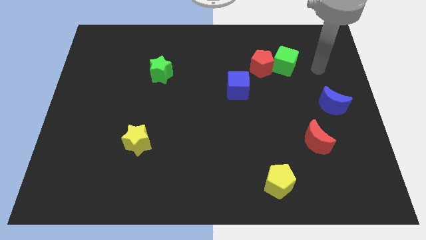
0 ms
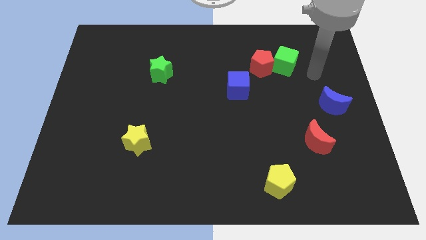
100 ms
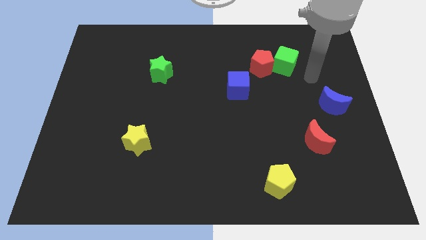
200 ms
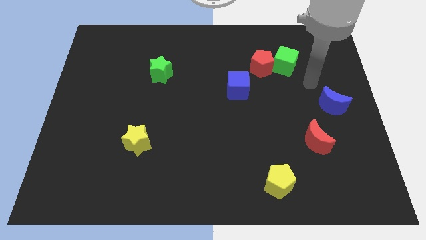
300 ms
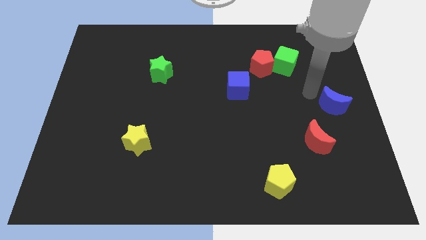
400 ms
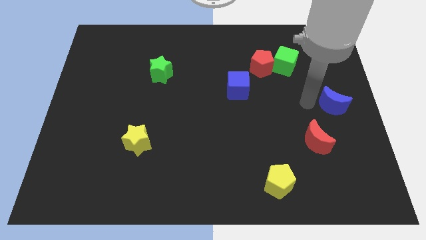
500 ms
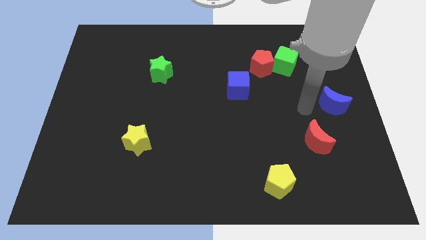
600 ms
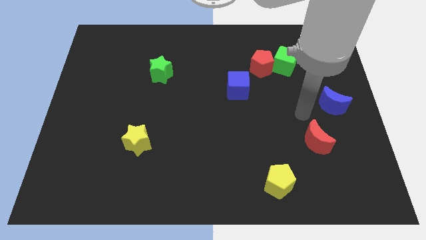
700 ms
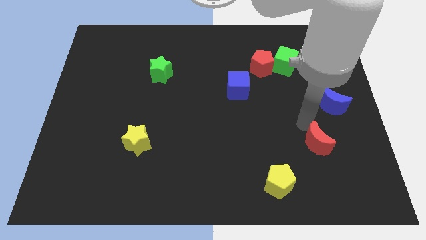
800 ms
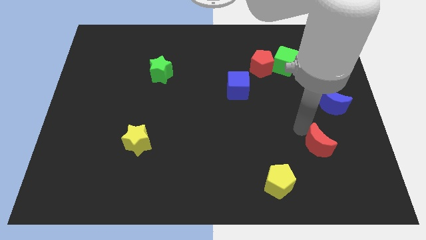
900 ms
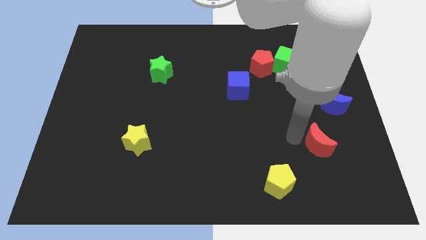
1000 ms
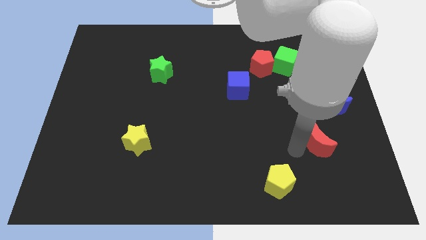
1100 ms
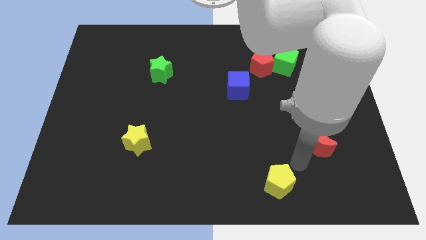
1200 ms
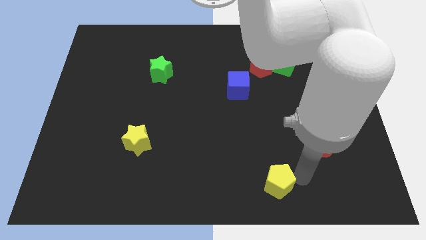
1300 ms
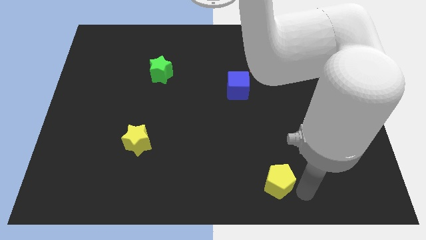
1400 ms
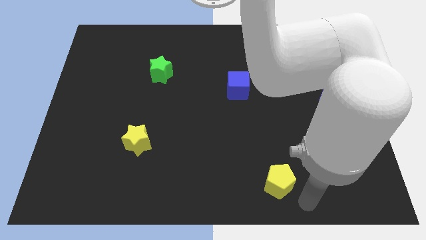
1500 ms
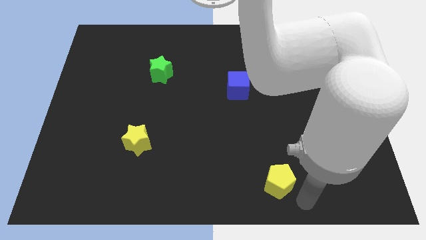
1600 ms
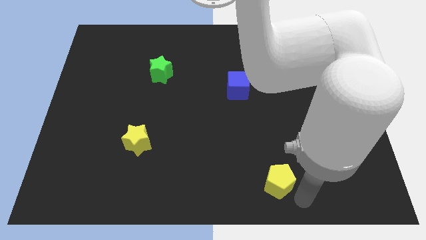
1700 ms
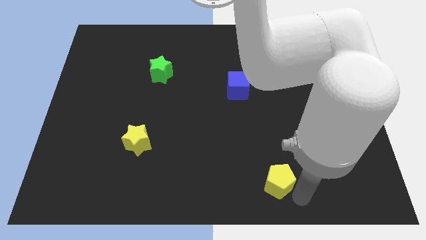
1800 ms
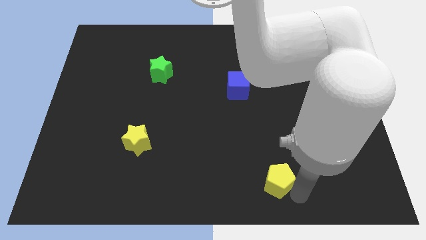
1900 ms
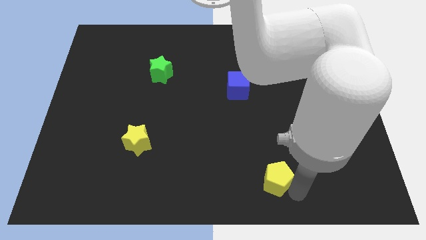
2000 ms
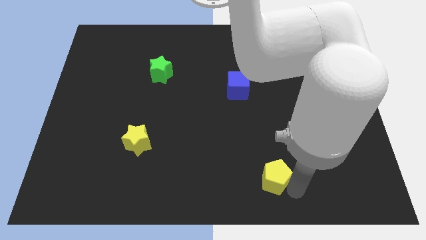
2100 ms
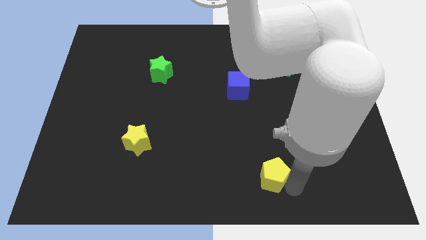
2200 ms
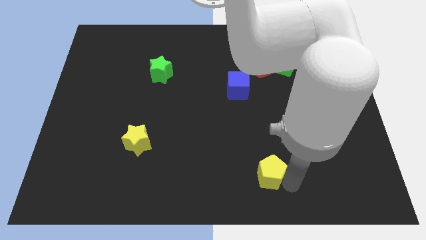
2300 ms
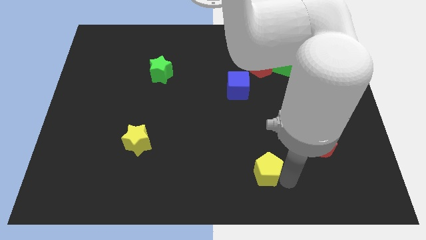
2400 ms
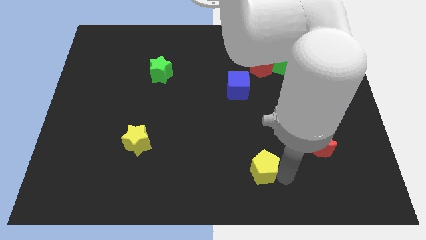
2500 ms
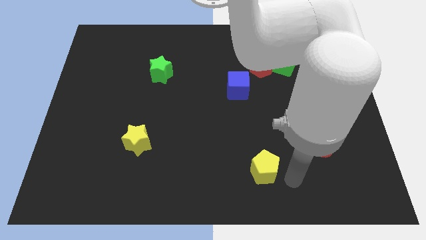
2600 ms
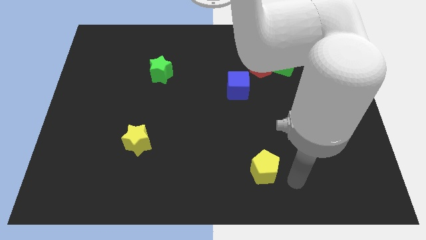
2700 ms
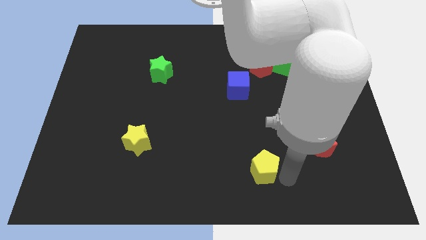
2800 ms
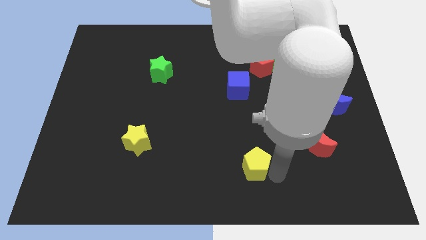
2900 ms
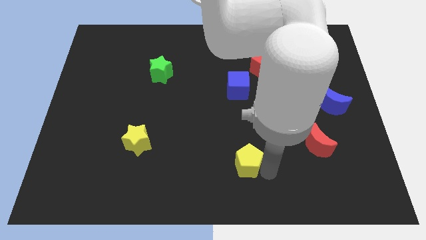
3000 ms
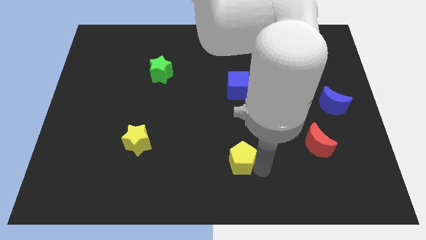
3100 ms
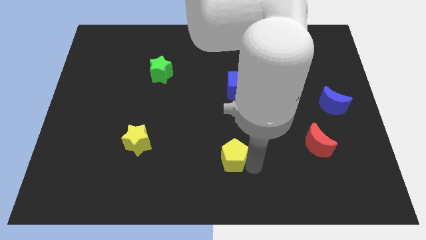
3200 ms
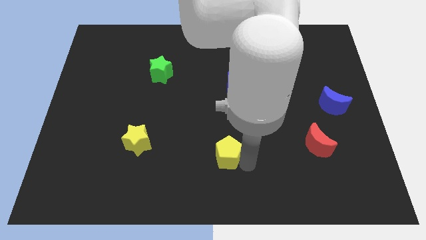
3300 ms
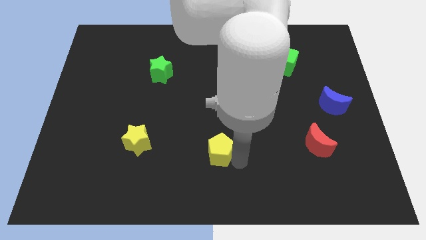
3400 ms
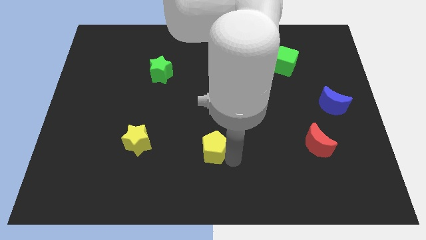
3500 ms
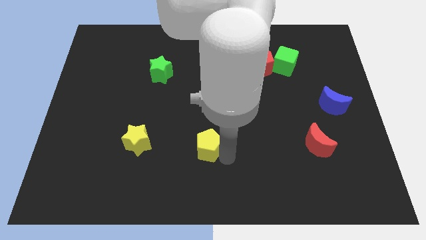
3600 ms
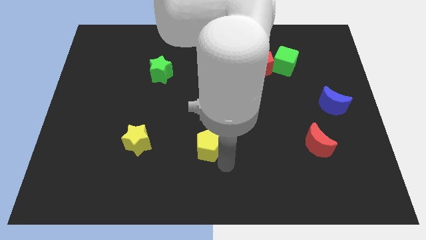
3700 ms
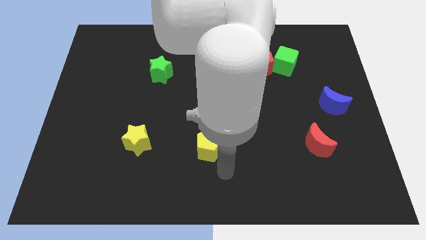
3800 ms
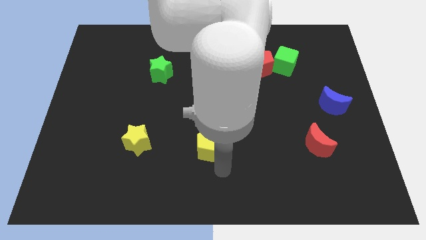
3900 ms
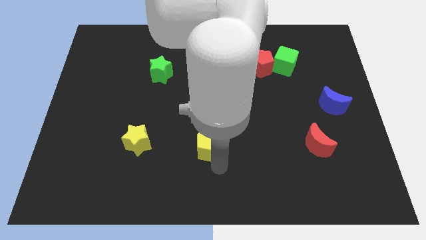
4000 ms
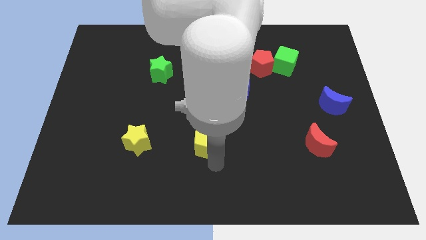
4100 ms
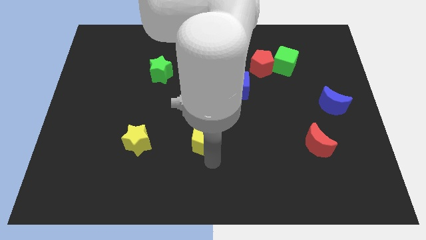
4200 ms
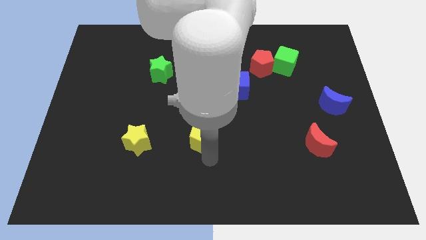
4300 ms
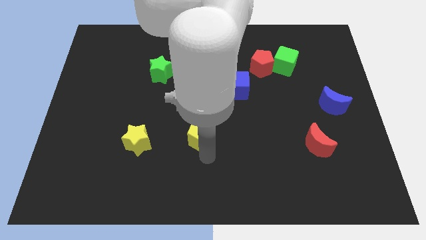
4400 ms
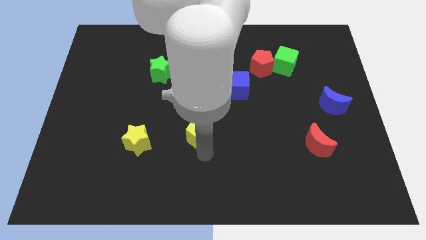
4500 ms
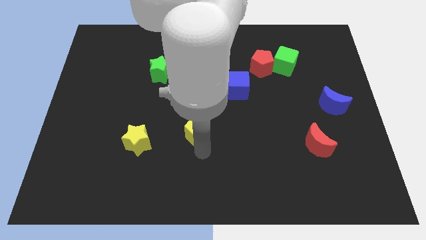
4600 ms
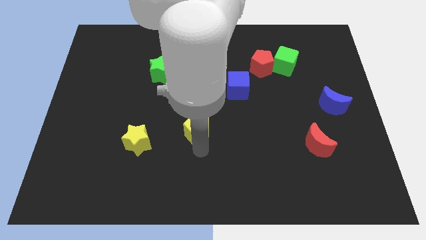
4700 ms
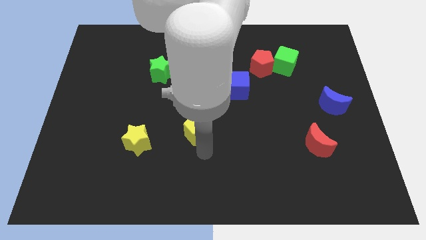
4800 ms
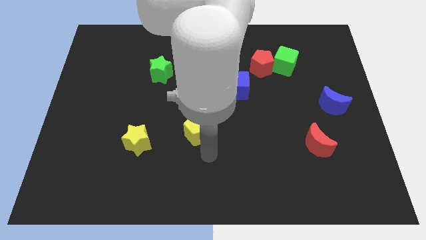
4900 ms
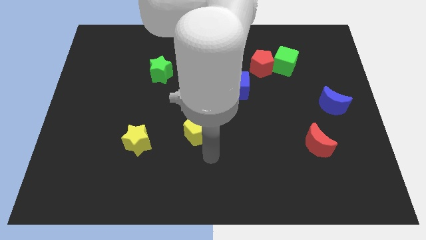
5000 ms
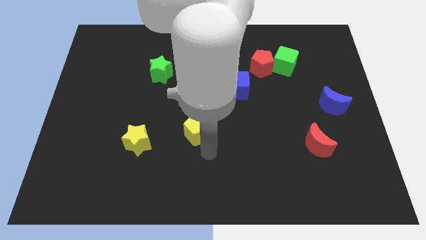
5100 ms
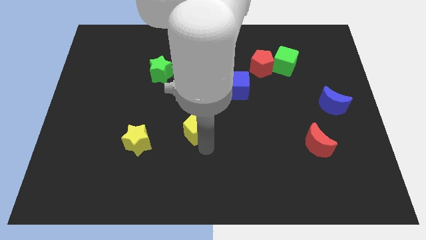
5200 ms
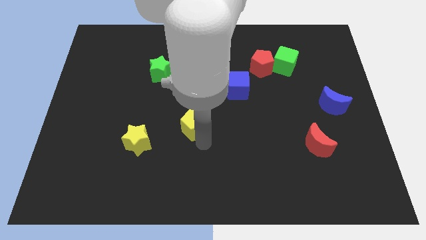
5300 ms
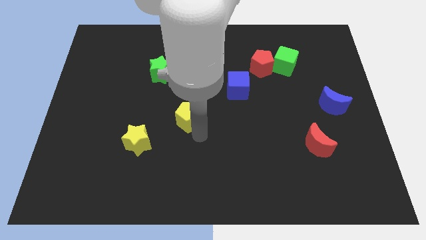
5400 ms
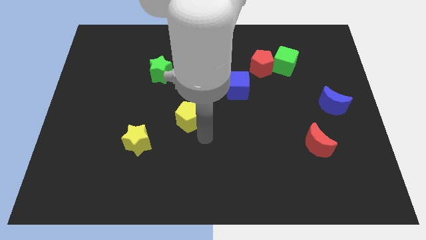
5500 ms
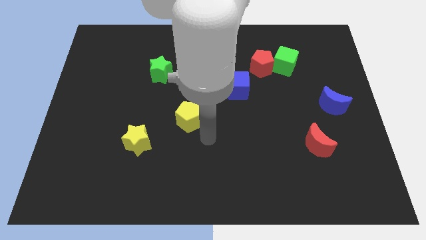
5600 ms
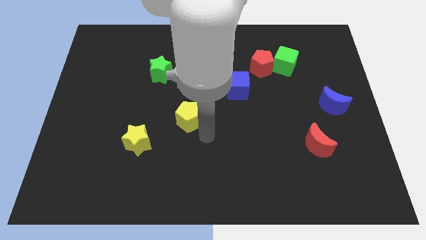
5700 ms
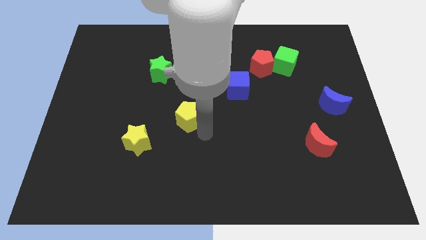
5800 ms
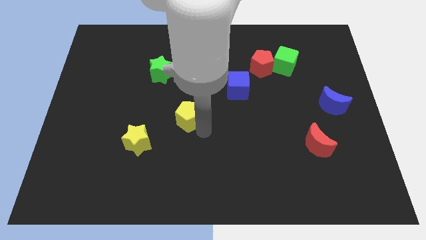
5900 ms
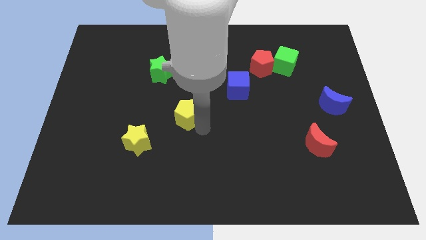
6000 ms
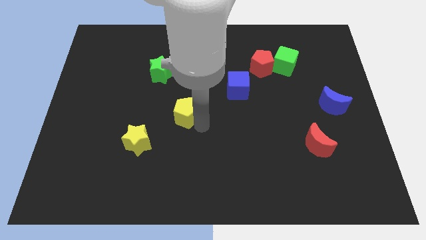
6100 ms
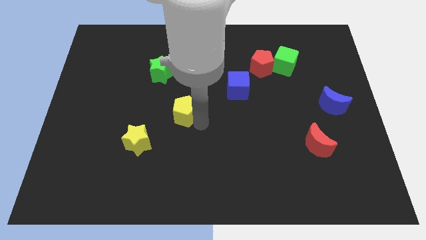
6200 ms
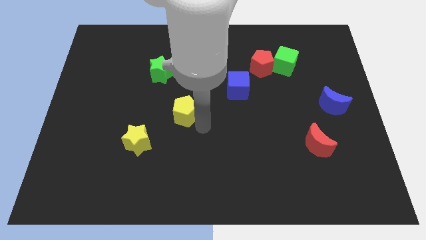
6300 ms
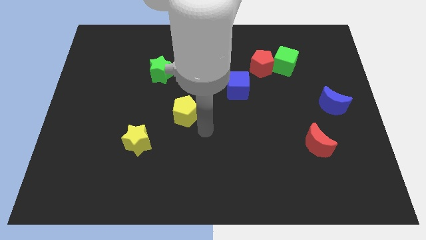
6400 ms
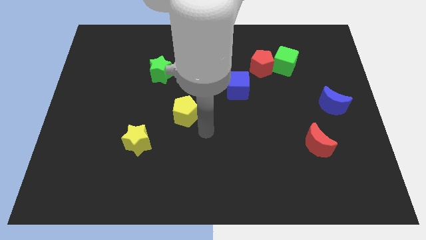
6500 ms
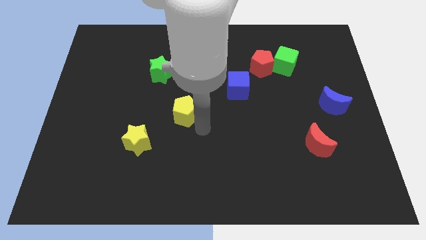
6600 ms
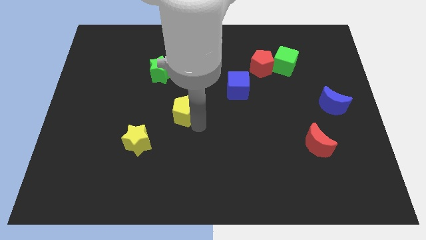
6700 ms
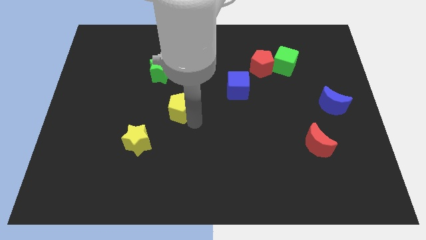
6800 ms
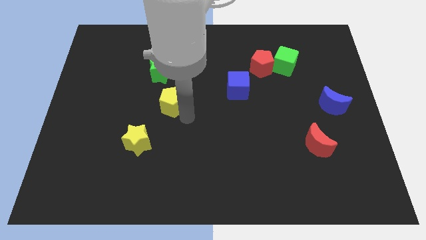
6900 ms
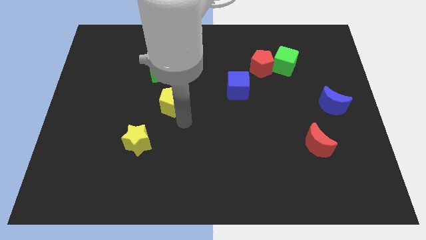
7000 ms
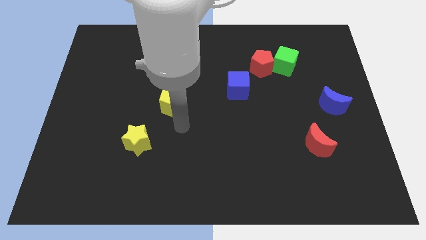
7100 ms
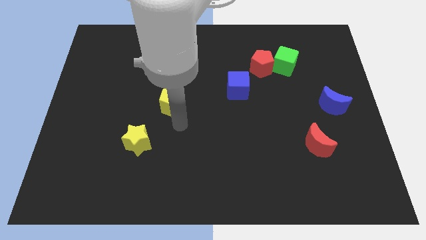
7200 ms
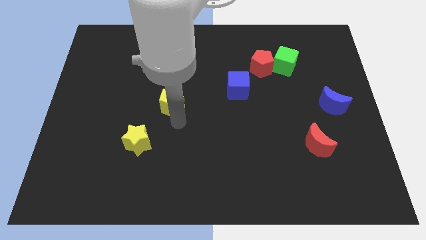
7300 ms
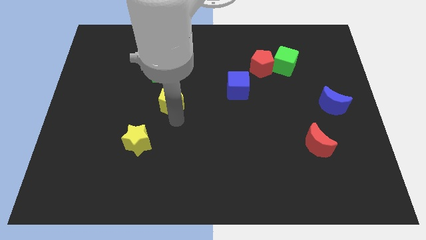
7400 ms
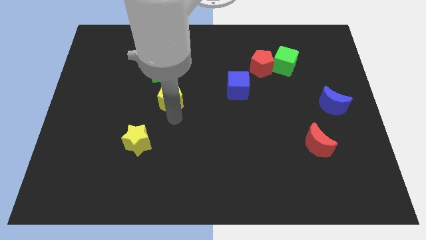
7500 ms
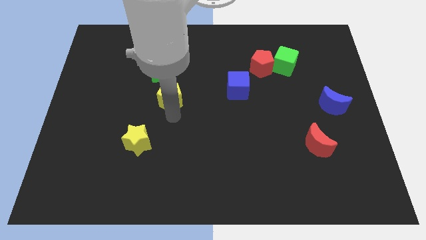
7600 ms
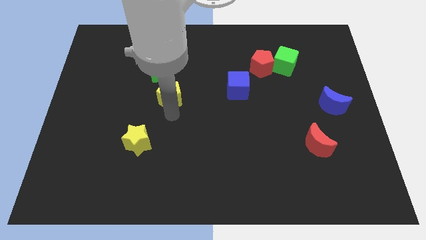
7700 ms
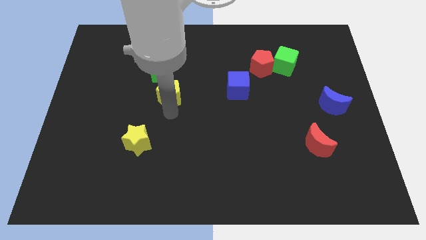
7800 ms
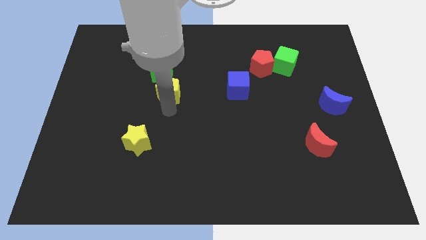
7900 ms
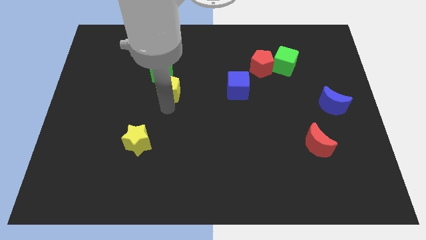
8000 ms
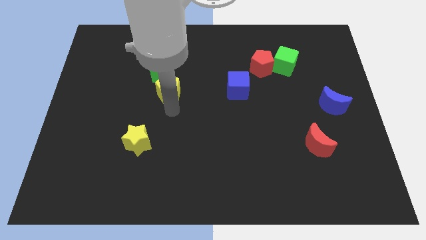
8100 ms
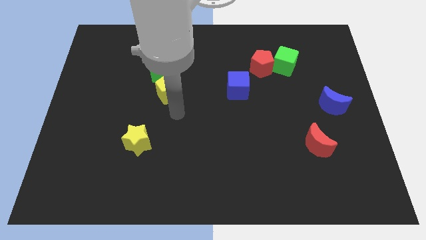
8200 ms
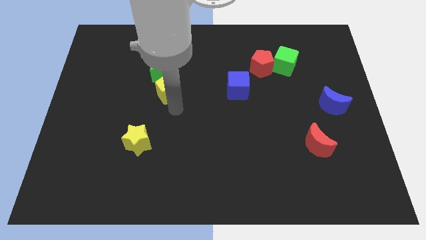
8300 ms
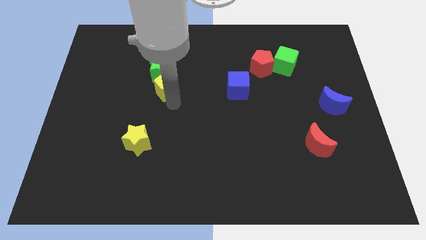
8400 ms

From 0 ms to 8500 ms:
slide the yellow pentagon next to the green star

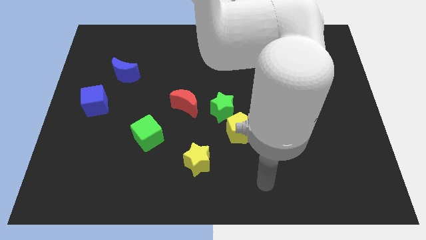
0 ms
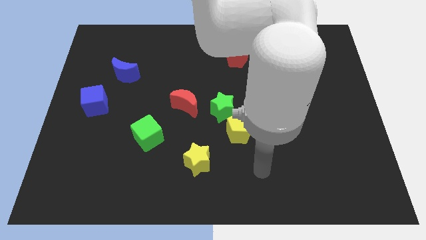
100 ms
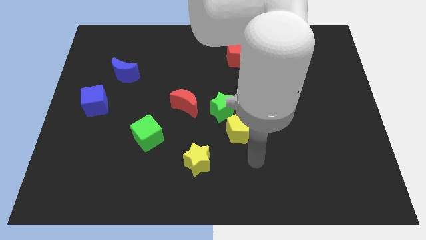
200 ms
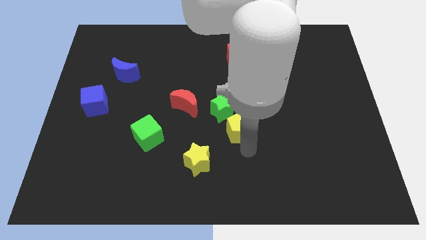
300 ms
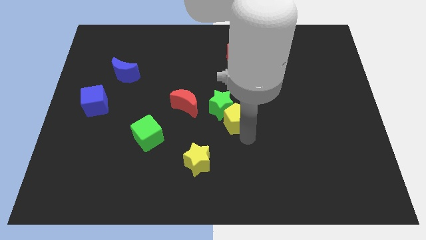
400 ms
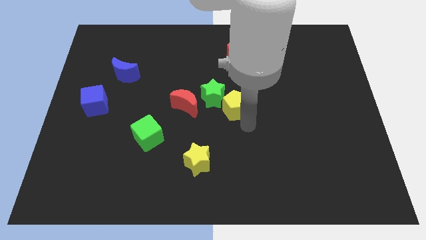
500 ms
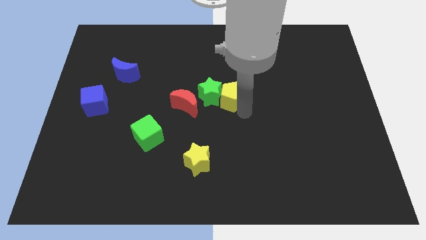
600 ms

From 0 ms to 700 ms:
put the green star to the red moon
